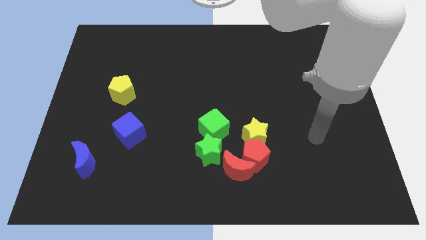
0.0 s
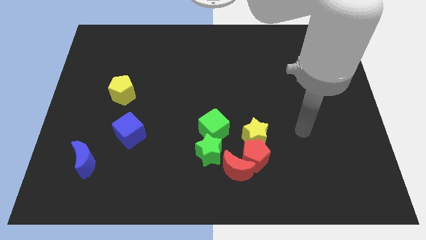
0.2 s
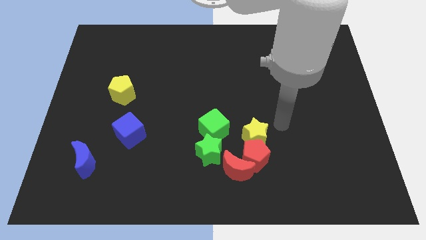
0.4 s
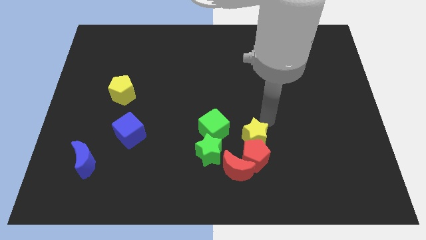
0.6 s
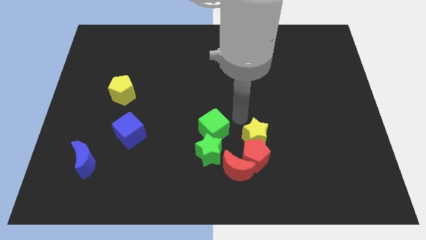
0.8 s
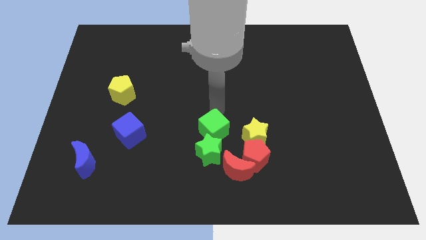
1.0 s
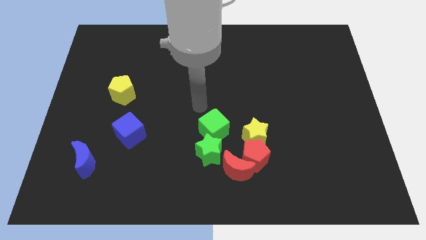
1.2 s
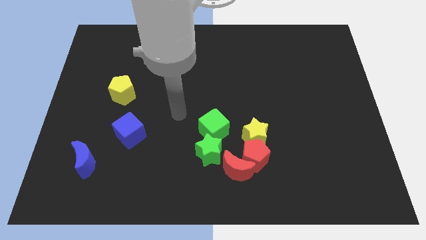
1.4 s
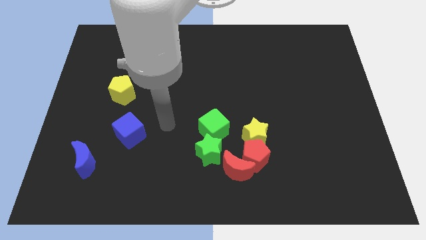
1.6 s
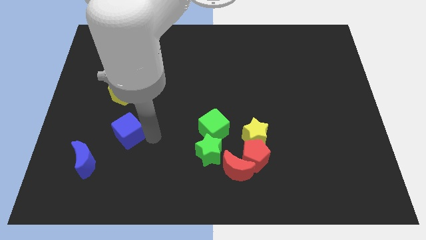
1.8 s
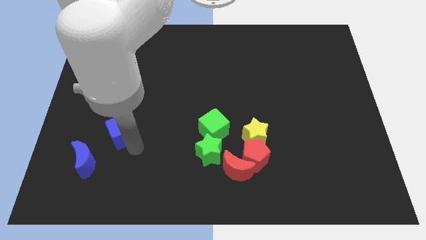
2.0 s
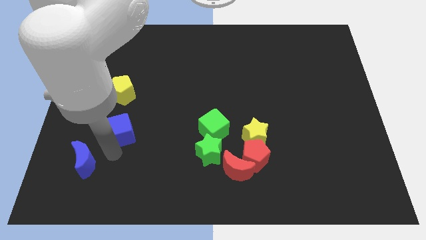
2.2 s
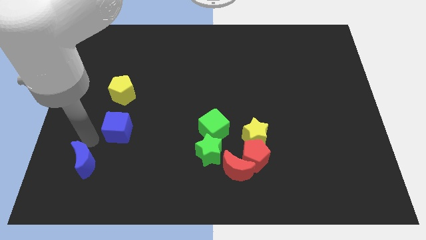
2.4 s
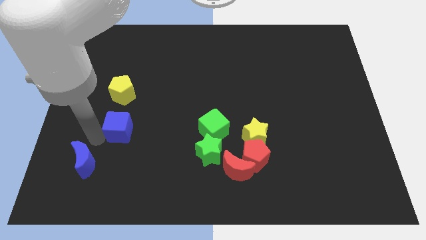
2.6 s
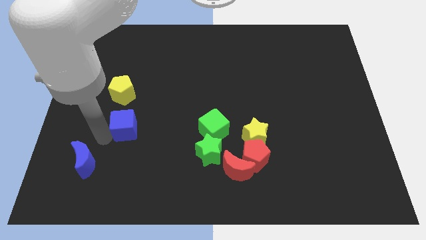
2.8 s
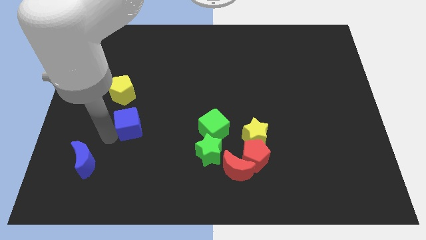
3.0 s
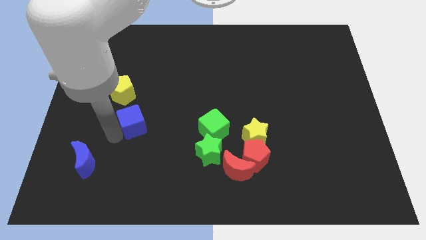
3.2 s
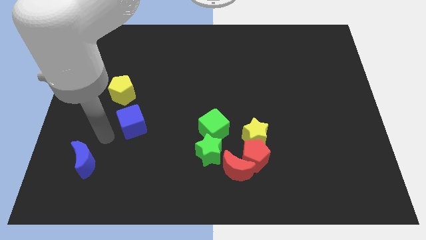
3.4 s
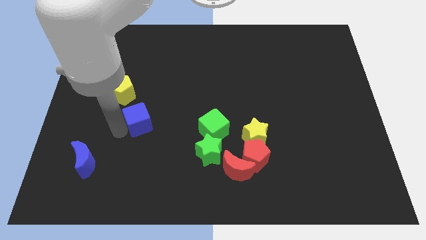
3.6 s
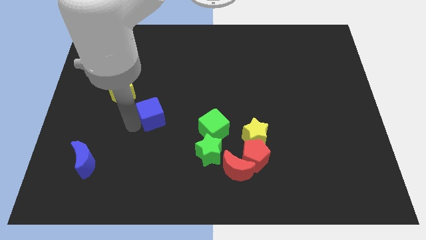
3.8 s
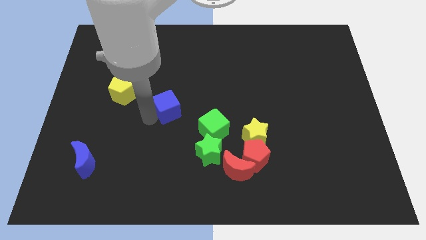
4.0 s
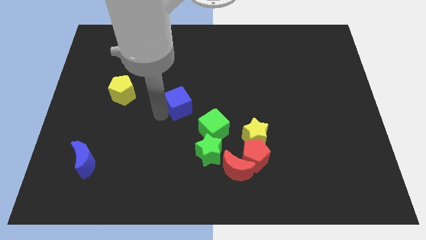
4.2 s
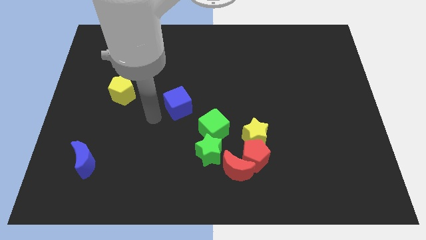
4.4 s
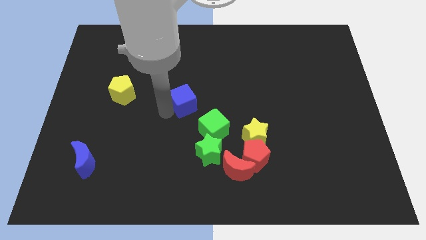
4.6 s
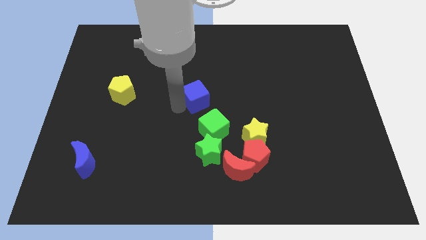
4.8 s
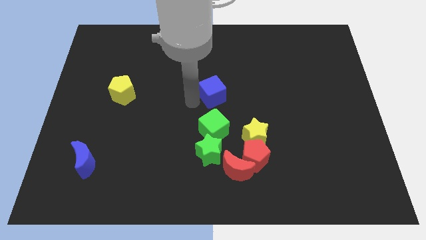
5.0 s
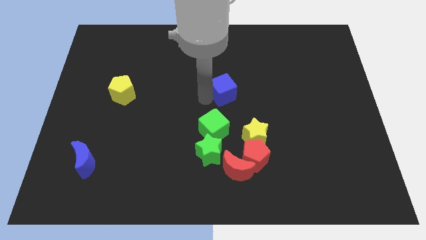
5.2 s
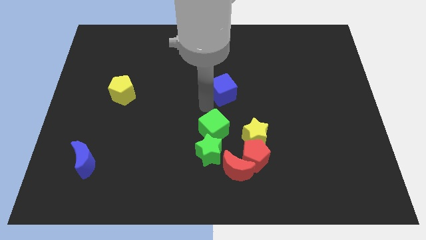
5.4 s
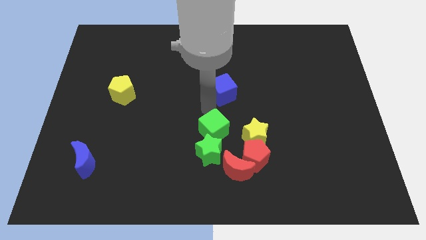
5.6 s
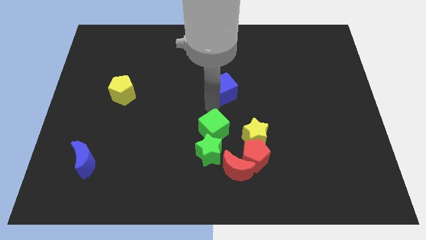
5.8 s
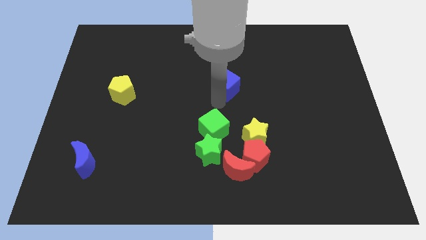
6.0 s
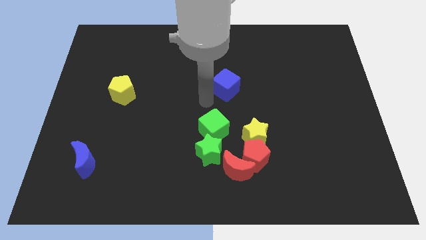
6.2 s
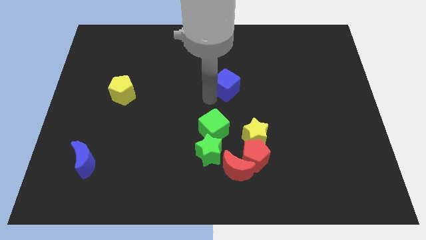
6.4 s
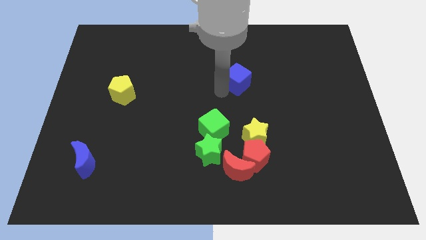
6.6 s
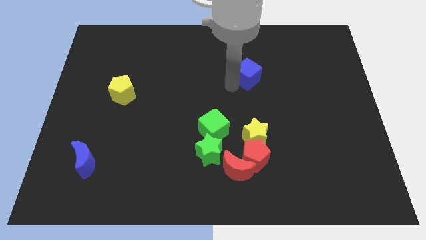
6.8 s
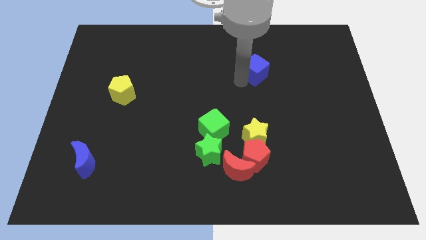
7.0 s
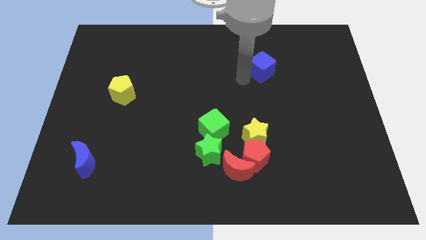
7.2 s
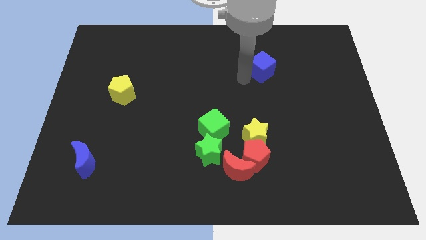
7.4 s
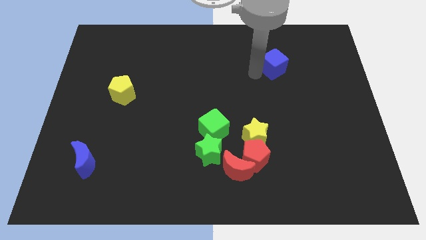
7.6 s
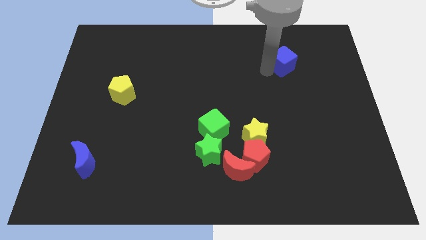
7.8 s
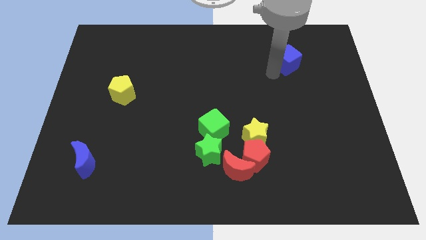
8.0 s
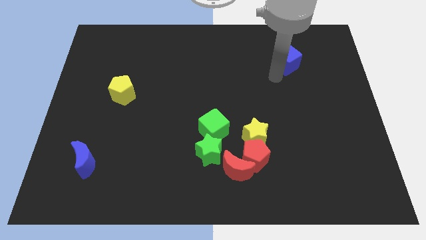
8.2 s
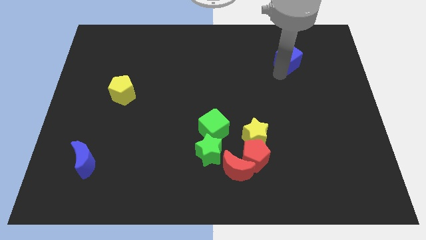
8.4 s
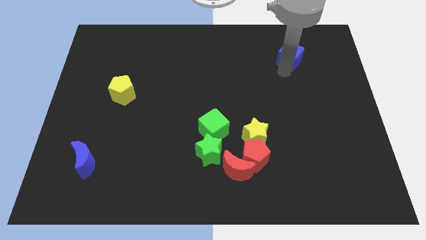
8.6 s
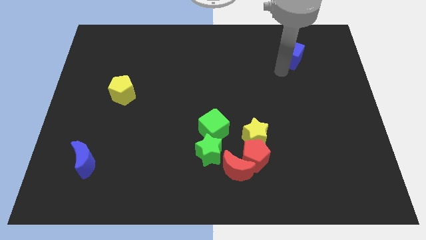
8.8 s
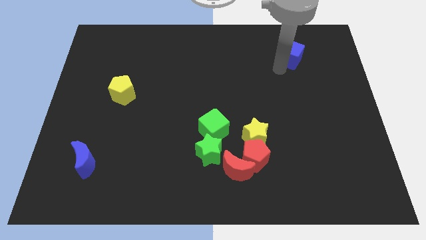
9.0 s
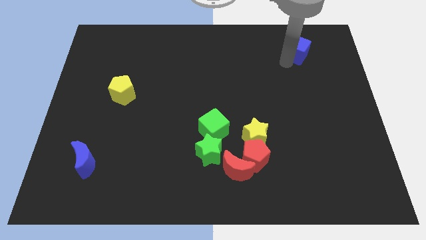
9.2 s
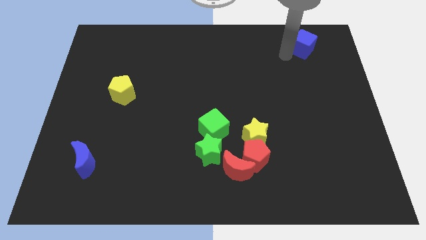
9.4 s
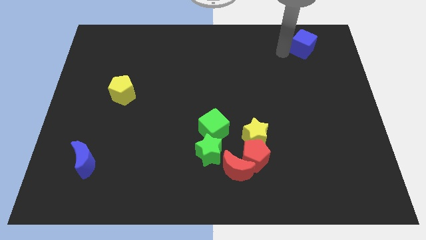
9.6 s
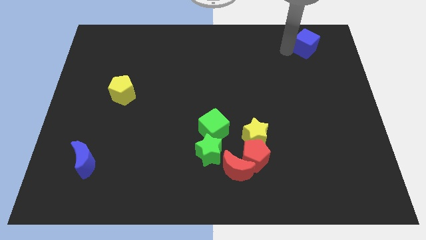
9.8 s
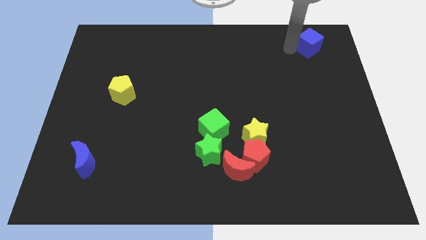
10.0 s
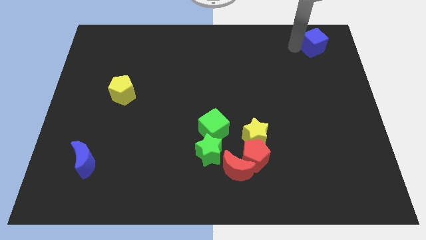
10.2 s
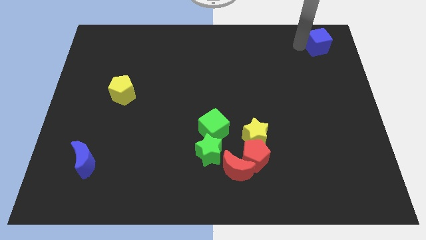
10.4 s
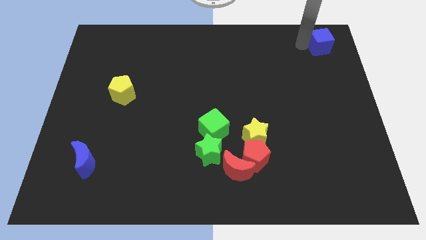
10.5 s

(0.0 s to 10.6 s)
slide the blue cube to the top right

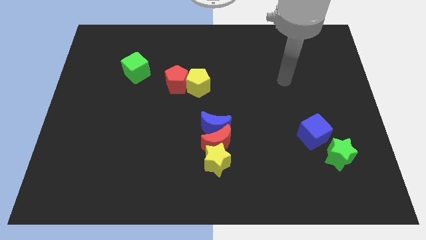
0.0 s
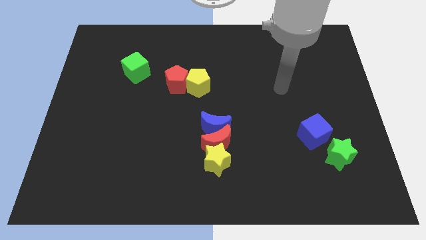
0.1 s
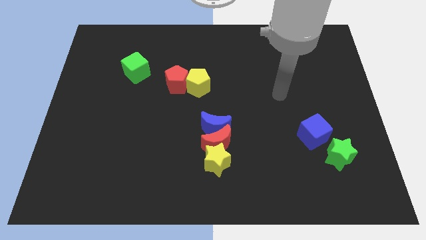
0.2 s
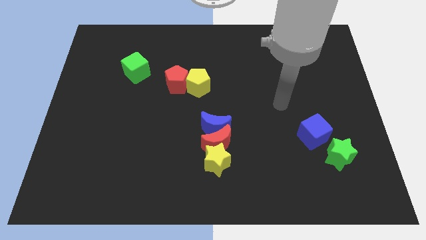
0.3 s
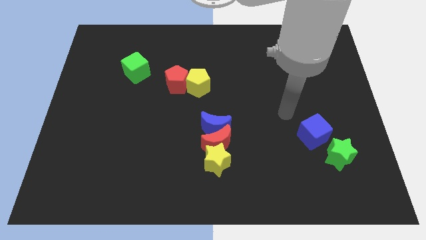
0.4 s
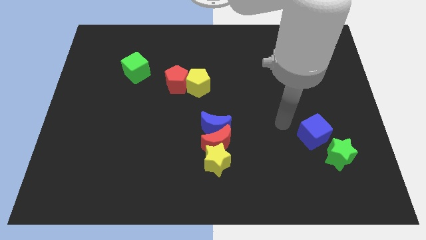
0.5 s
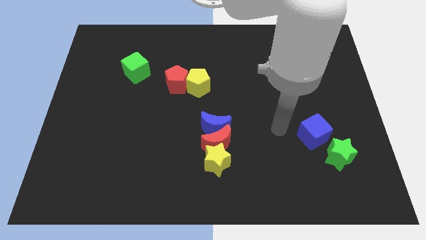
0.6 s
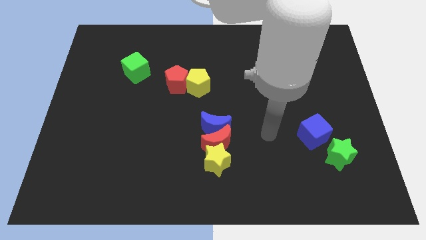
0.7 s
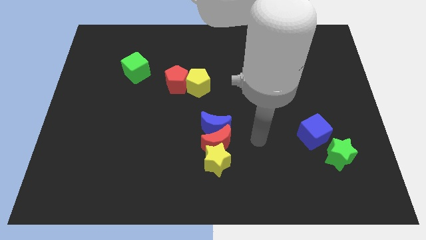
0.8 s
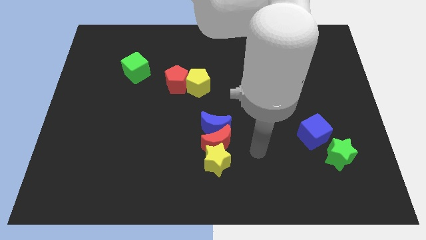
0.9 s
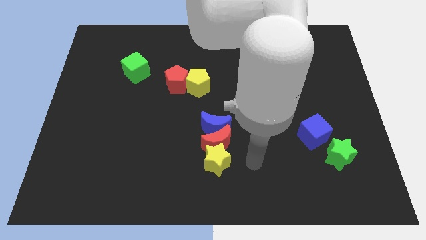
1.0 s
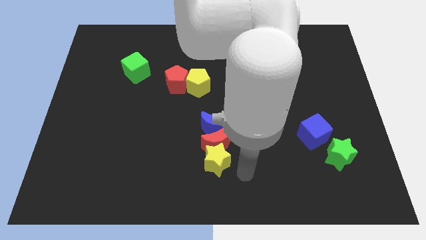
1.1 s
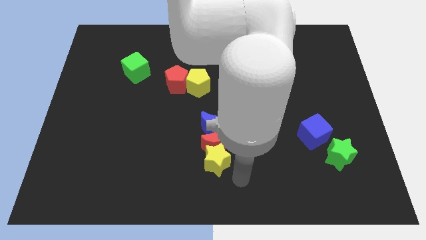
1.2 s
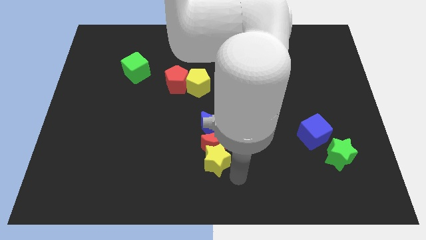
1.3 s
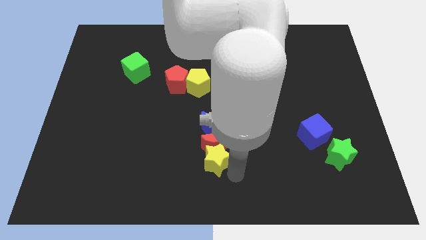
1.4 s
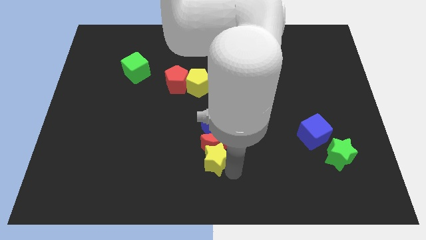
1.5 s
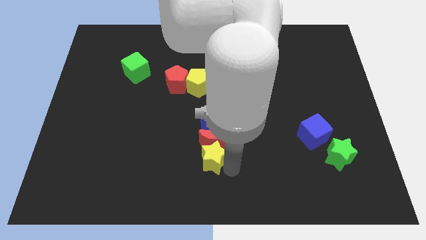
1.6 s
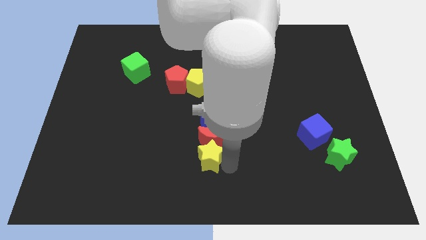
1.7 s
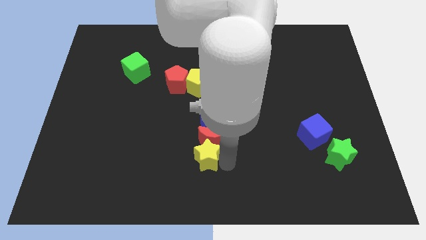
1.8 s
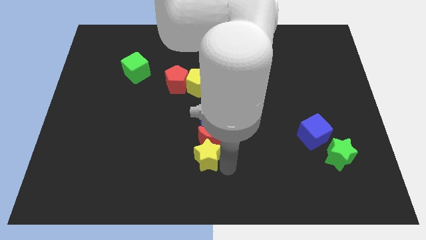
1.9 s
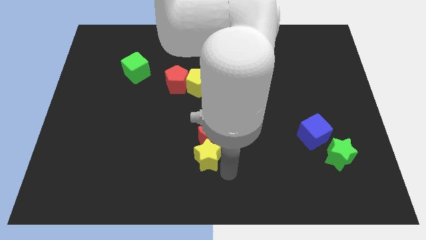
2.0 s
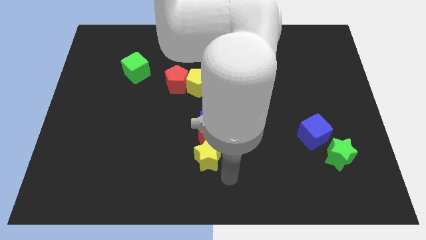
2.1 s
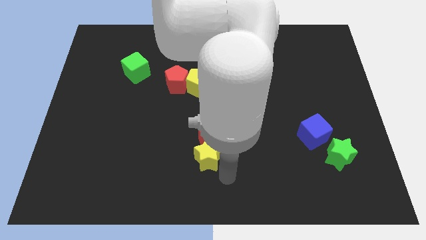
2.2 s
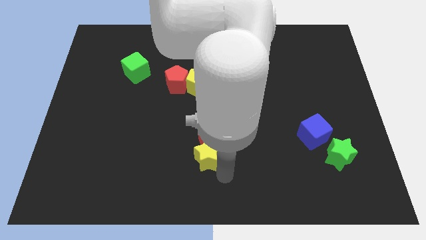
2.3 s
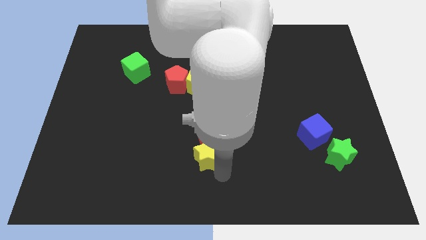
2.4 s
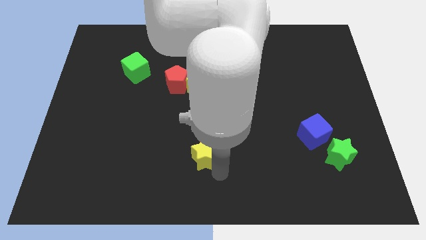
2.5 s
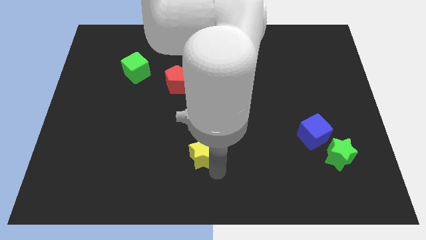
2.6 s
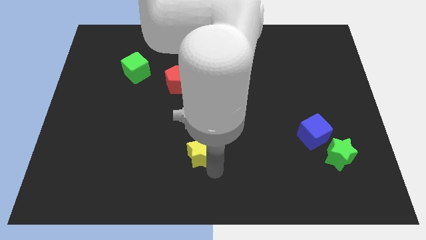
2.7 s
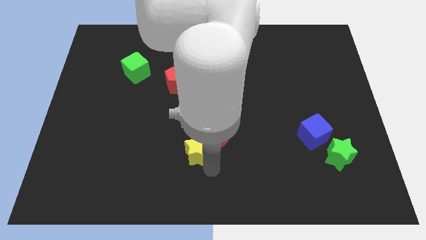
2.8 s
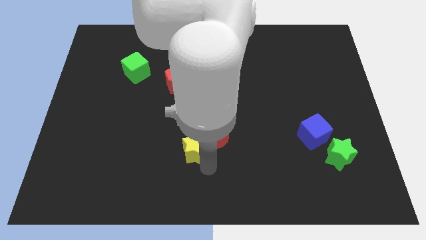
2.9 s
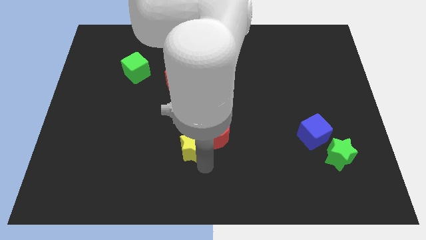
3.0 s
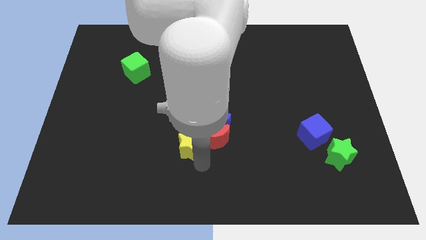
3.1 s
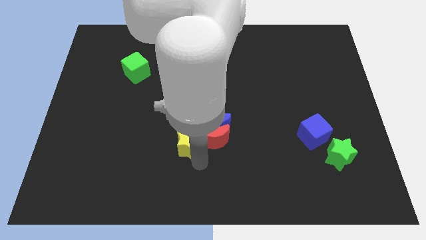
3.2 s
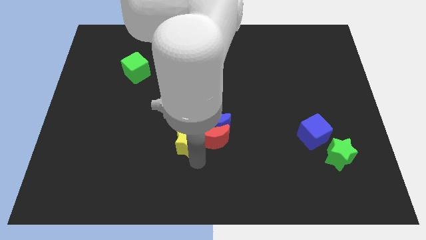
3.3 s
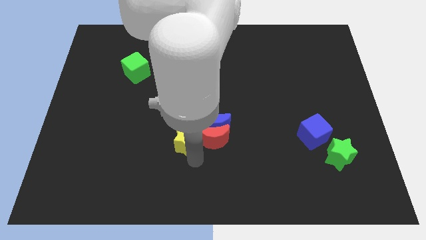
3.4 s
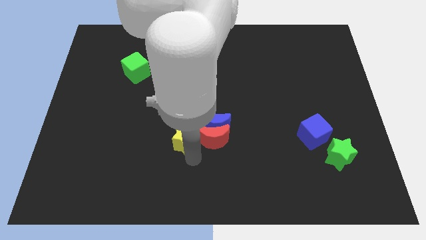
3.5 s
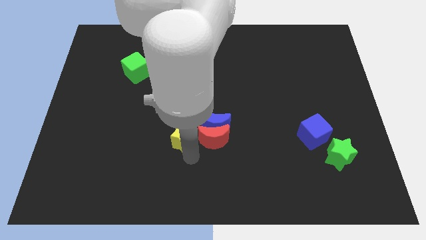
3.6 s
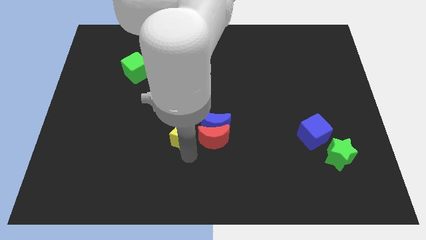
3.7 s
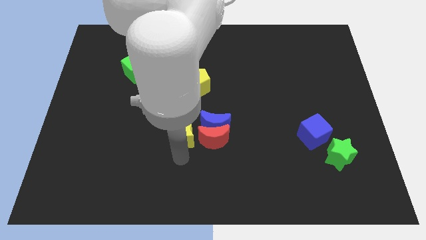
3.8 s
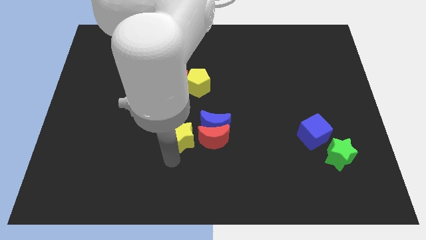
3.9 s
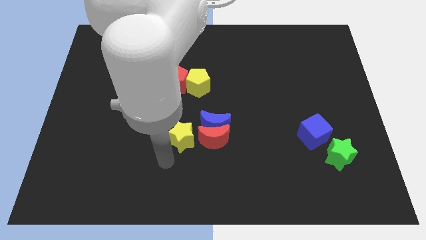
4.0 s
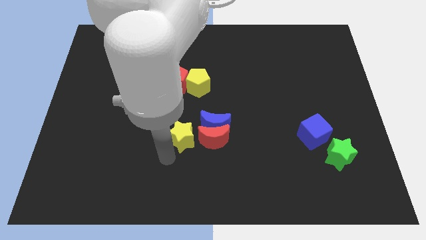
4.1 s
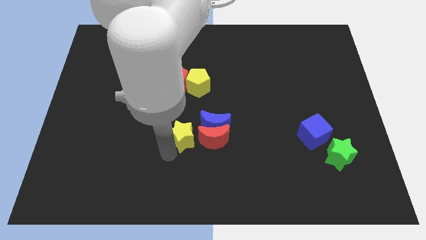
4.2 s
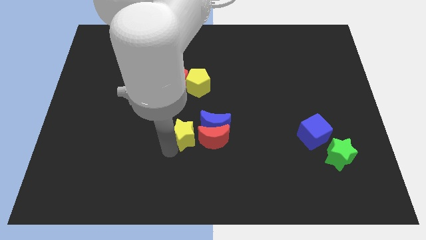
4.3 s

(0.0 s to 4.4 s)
push the yellow star to the center of the board
